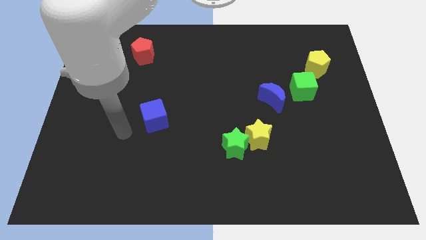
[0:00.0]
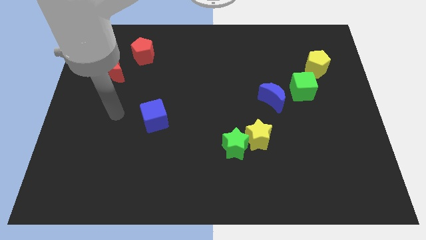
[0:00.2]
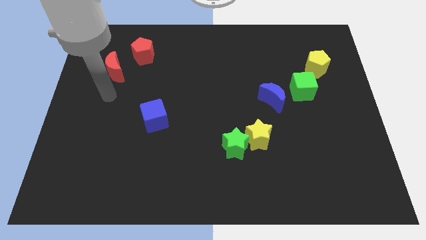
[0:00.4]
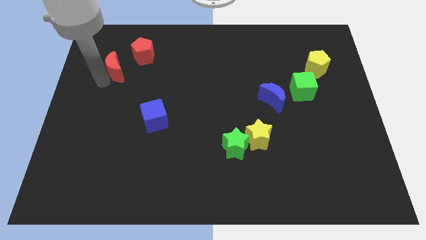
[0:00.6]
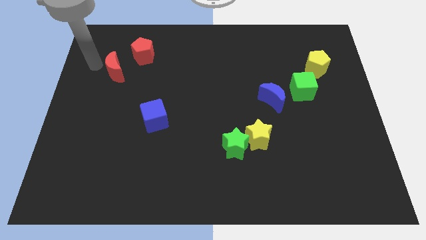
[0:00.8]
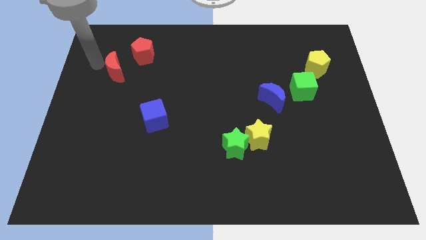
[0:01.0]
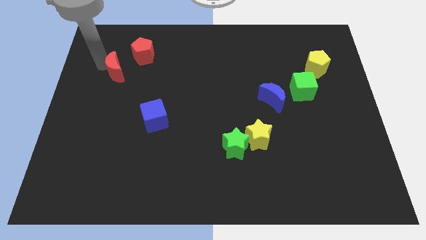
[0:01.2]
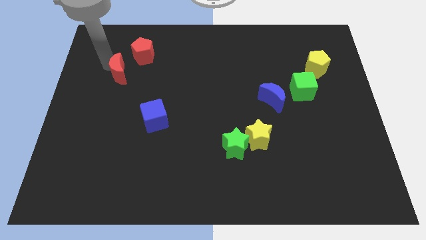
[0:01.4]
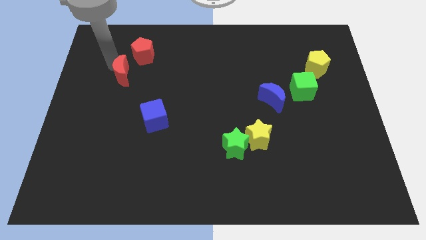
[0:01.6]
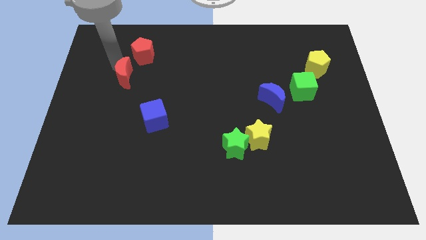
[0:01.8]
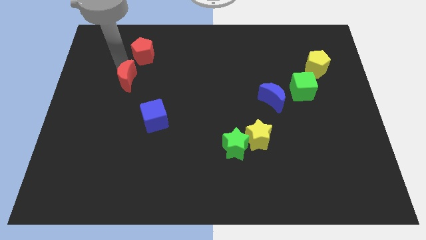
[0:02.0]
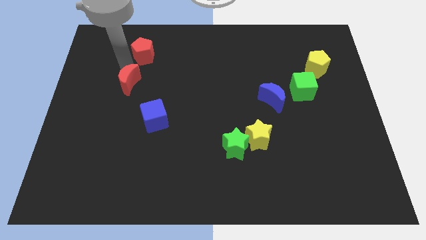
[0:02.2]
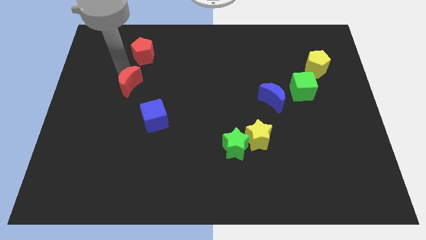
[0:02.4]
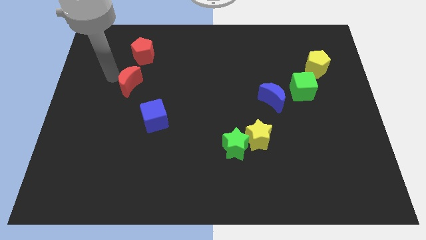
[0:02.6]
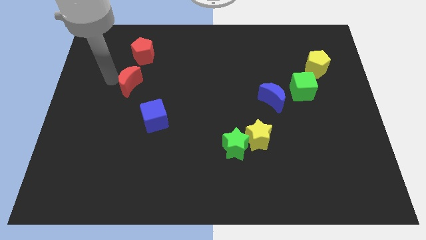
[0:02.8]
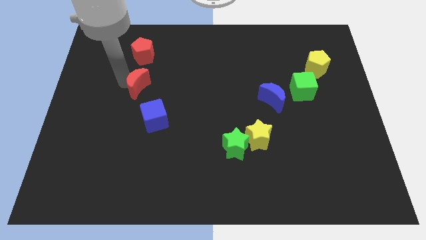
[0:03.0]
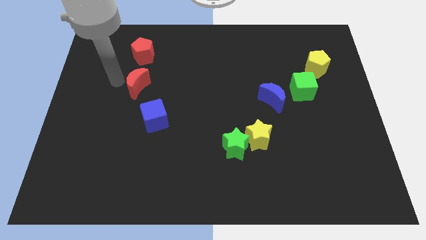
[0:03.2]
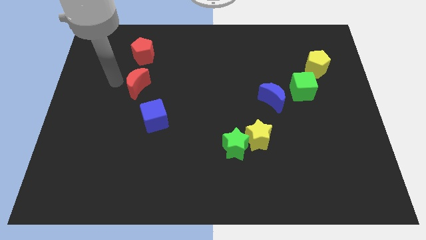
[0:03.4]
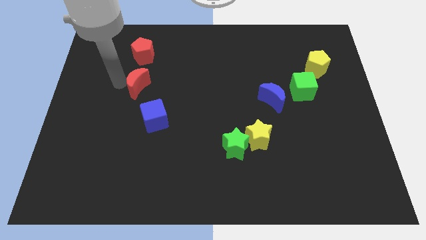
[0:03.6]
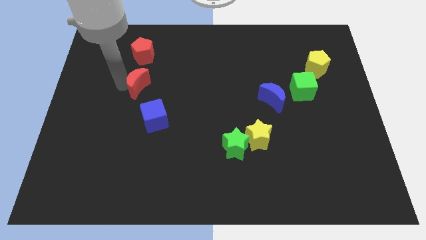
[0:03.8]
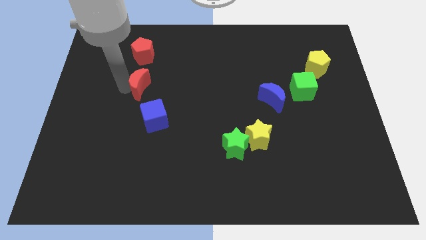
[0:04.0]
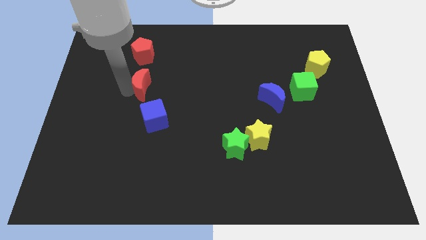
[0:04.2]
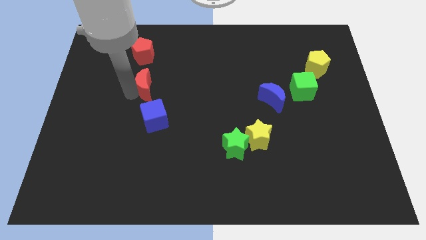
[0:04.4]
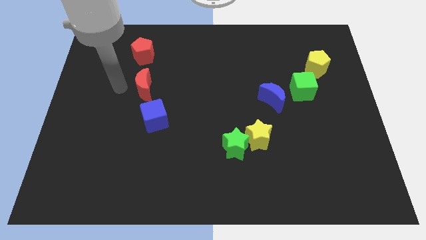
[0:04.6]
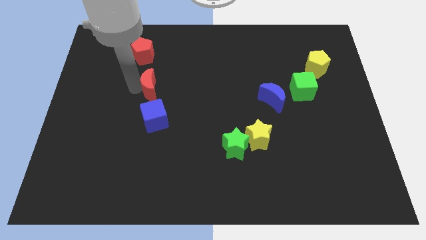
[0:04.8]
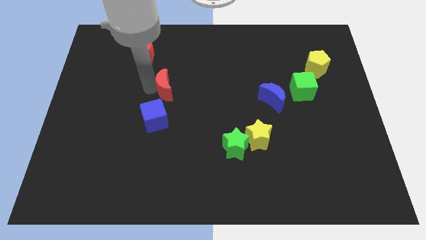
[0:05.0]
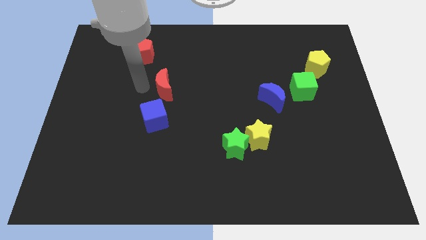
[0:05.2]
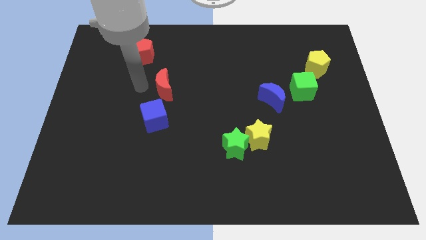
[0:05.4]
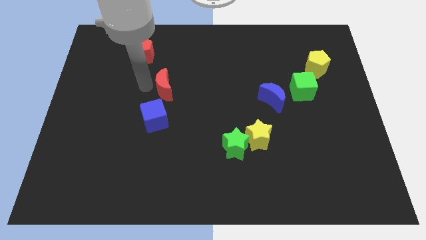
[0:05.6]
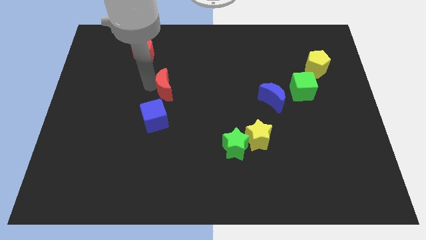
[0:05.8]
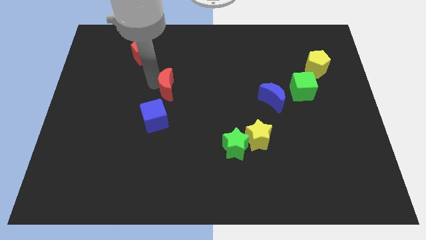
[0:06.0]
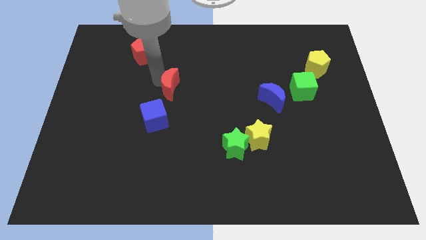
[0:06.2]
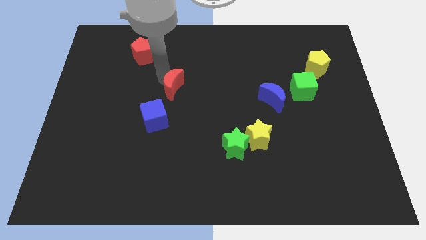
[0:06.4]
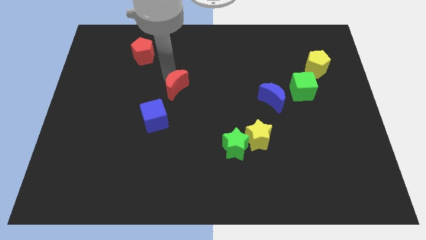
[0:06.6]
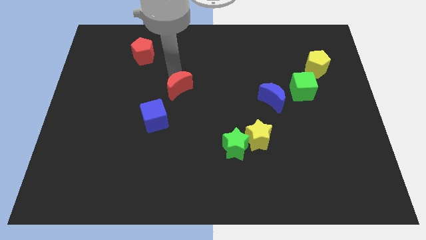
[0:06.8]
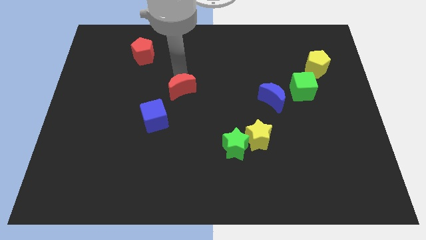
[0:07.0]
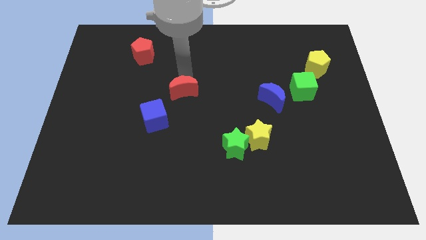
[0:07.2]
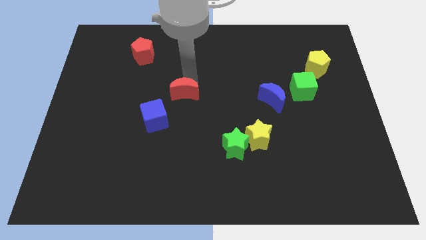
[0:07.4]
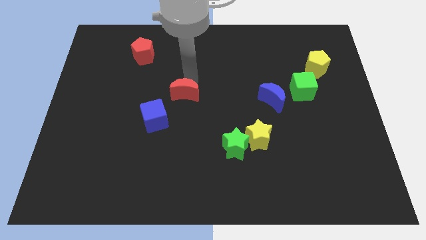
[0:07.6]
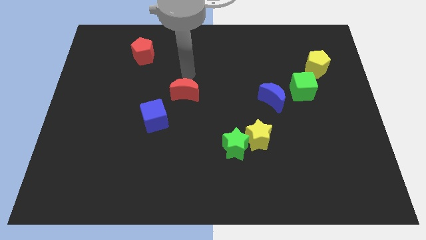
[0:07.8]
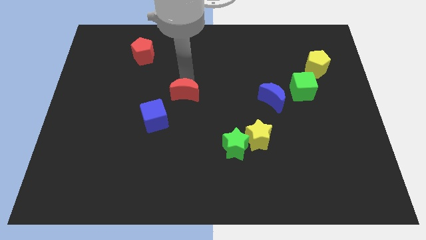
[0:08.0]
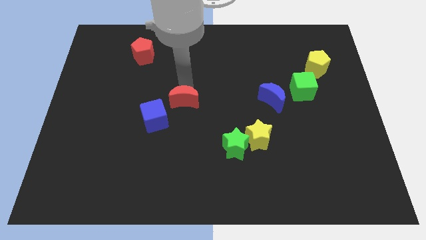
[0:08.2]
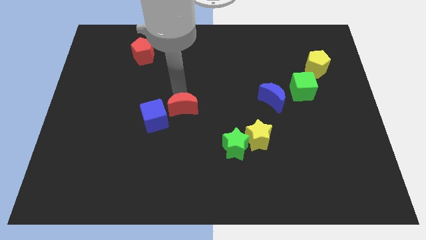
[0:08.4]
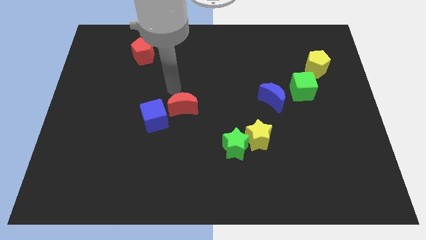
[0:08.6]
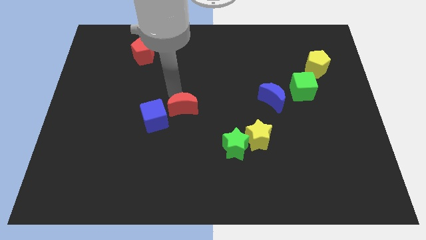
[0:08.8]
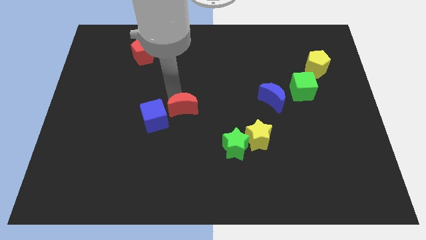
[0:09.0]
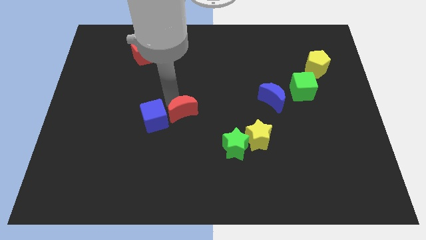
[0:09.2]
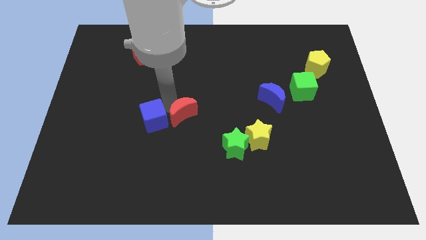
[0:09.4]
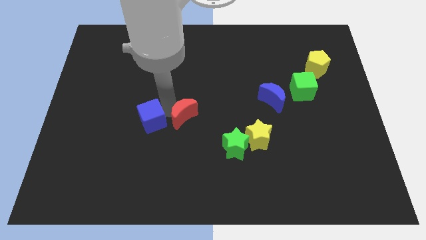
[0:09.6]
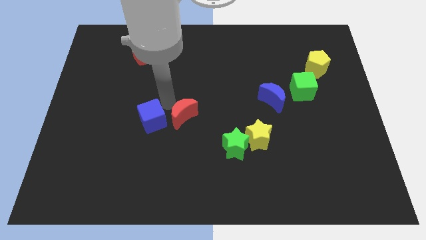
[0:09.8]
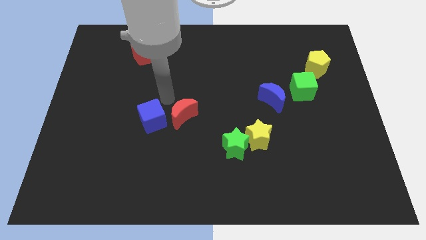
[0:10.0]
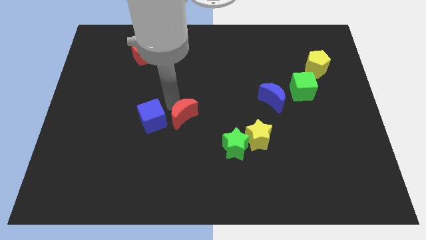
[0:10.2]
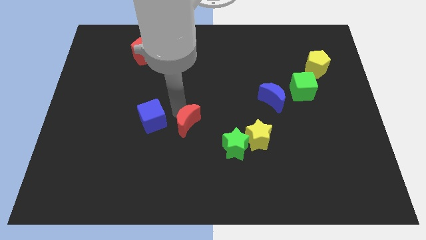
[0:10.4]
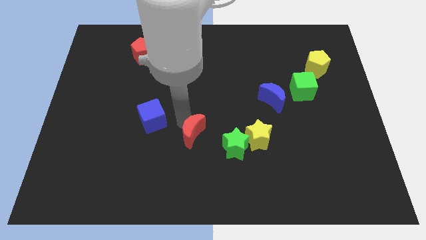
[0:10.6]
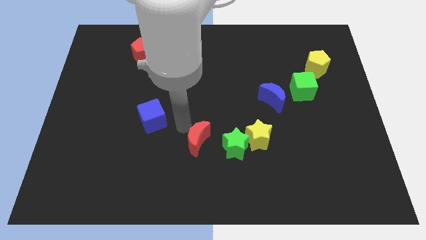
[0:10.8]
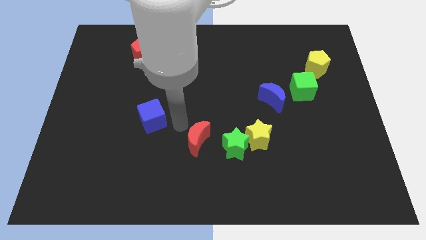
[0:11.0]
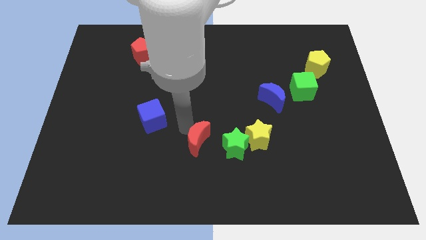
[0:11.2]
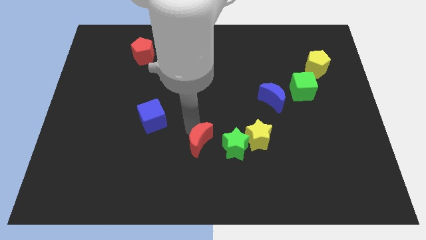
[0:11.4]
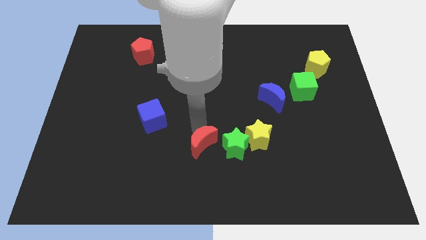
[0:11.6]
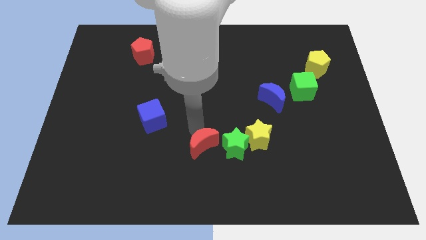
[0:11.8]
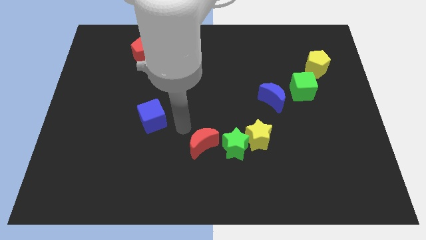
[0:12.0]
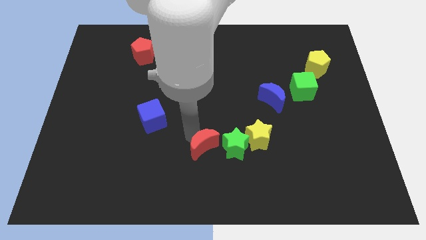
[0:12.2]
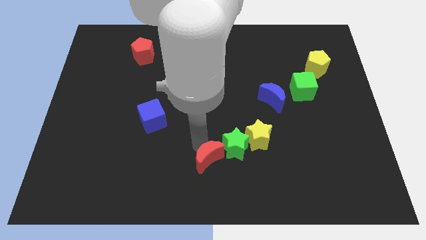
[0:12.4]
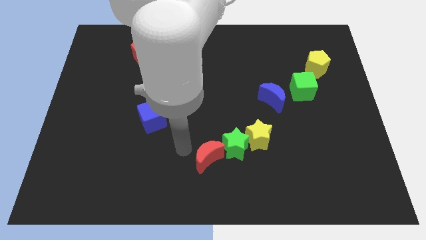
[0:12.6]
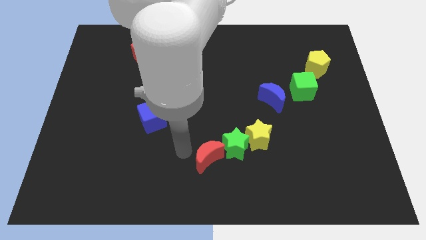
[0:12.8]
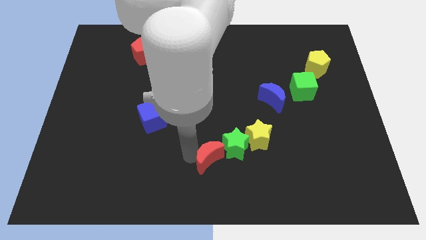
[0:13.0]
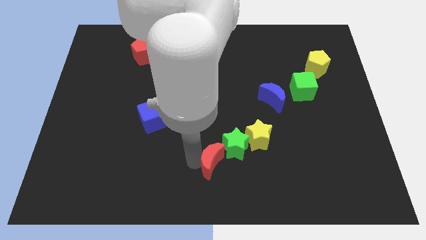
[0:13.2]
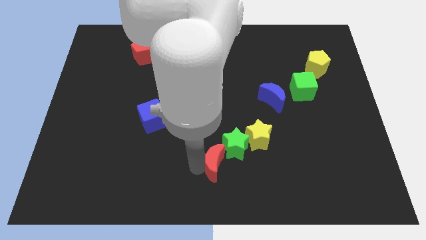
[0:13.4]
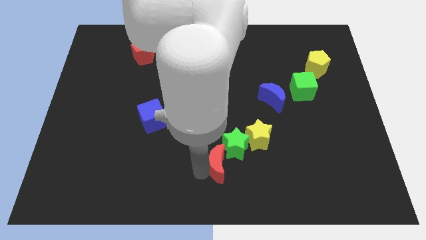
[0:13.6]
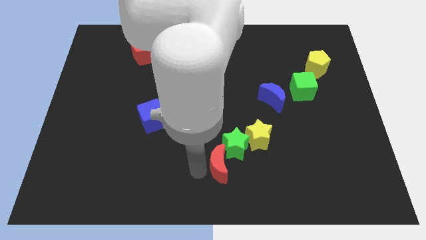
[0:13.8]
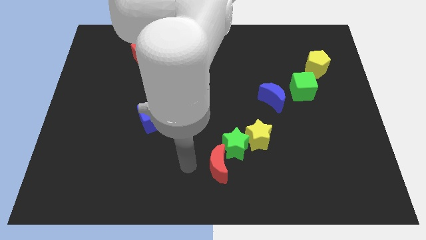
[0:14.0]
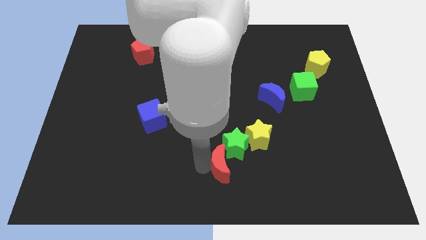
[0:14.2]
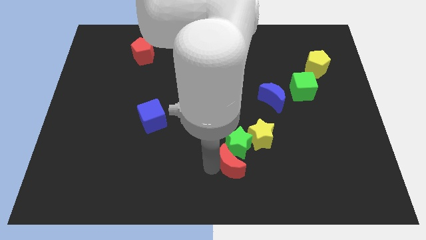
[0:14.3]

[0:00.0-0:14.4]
put the red moon diagonally down and to the right of the green star
